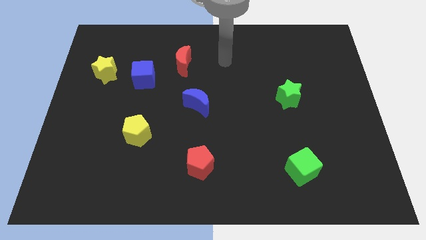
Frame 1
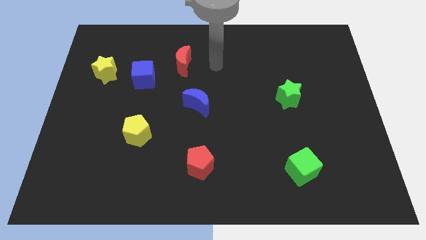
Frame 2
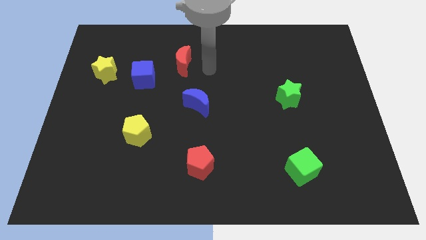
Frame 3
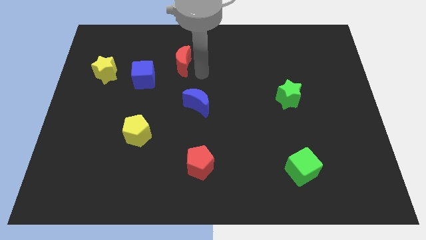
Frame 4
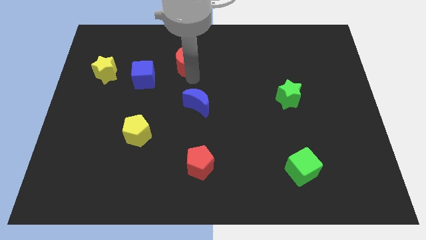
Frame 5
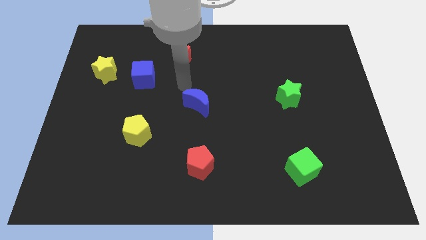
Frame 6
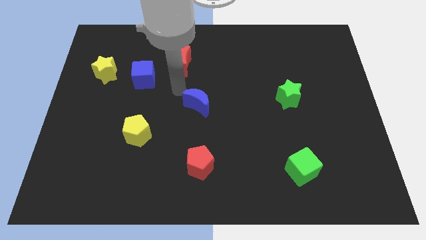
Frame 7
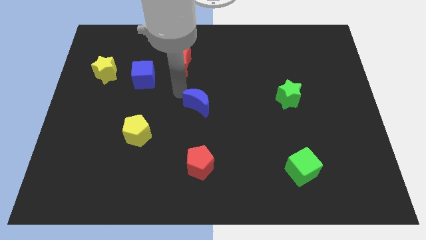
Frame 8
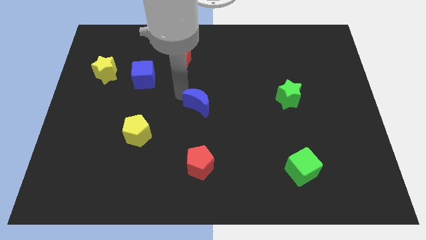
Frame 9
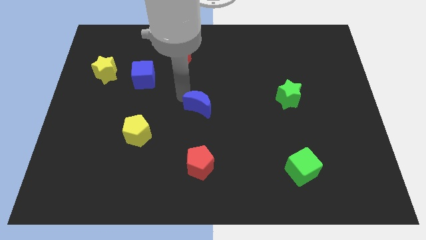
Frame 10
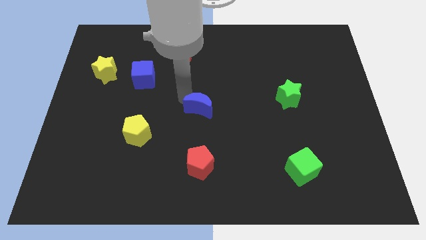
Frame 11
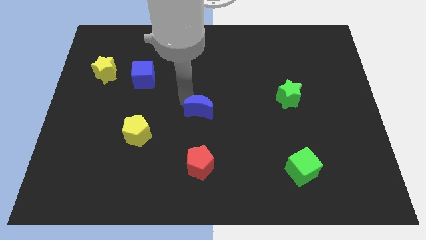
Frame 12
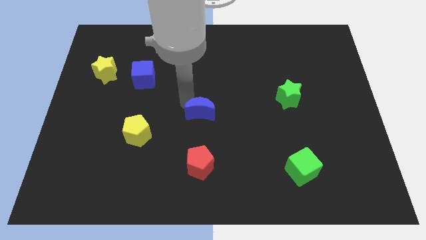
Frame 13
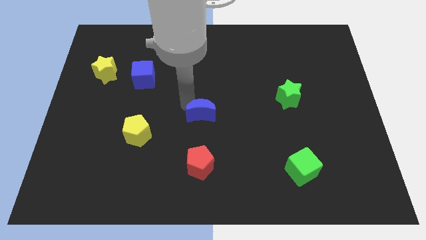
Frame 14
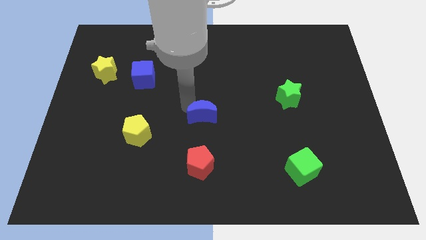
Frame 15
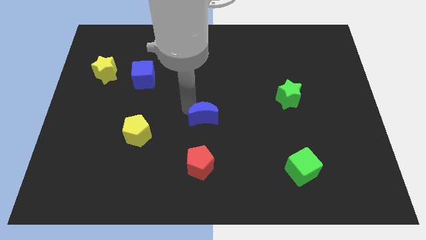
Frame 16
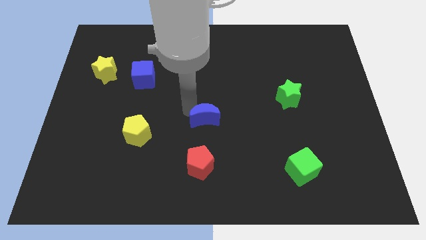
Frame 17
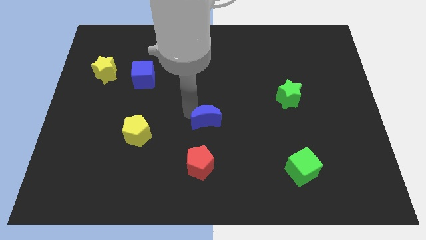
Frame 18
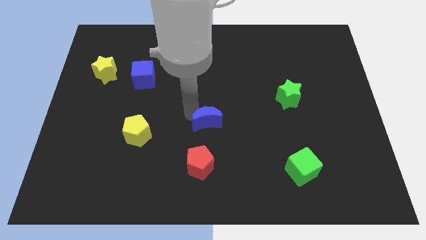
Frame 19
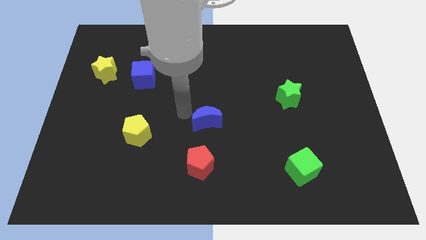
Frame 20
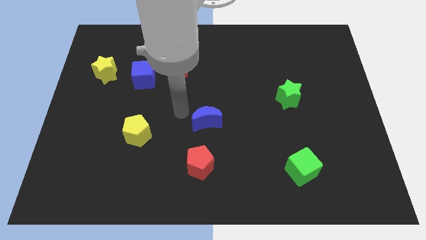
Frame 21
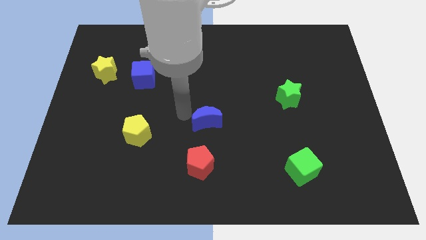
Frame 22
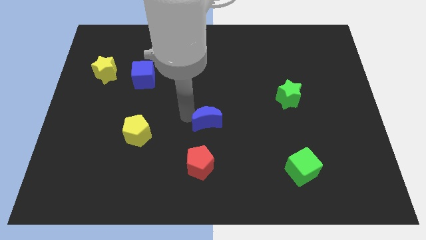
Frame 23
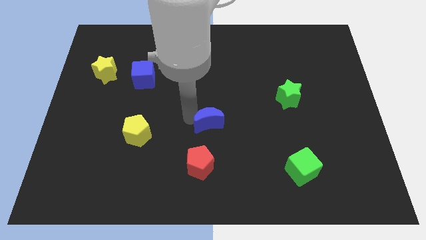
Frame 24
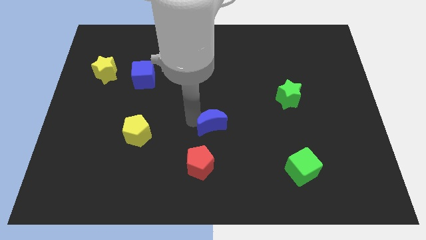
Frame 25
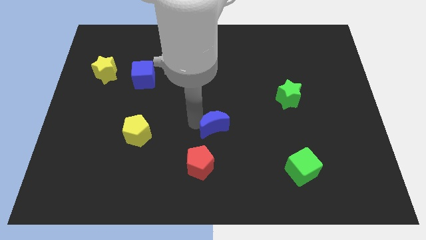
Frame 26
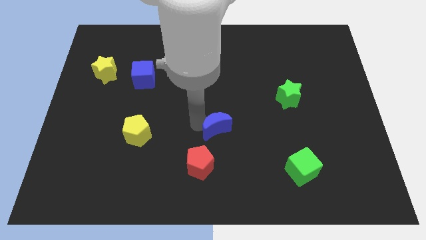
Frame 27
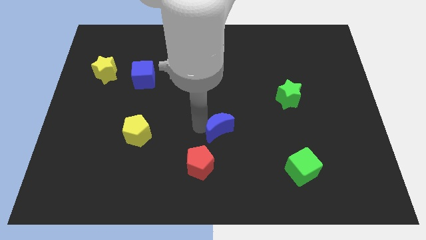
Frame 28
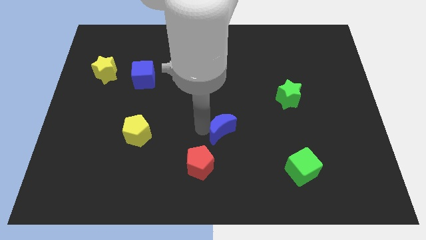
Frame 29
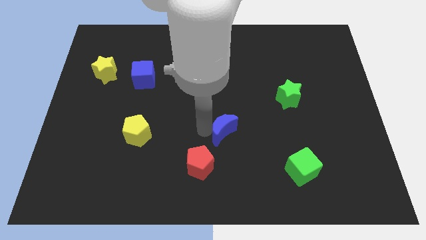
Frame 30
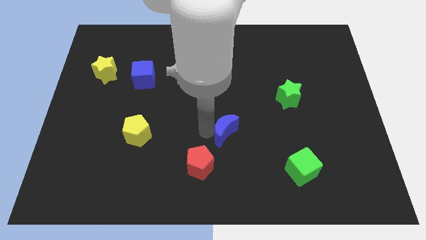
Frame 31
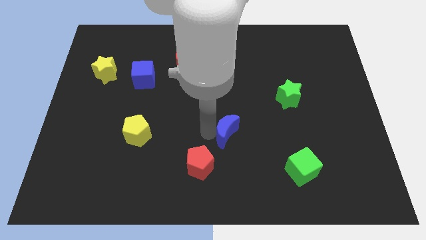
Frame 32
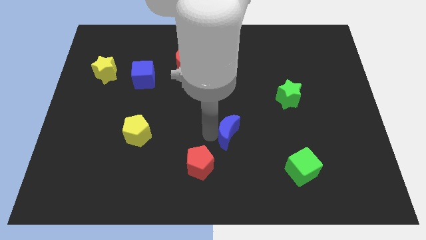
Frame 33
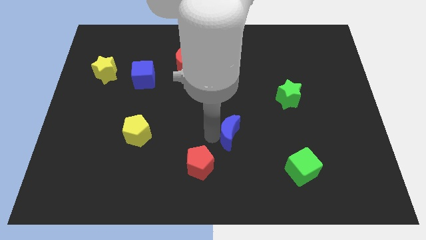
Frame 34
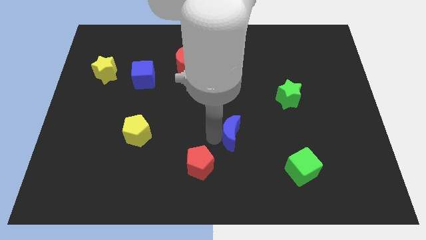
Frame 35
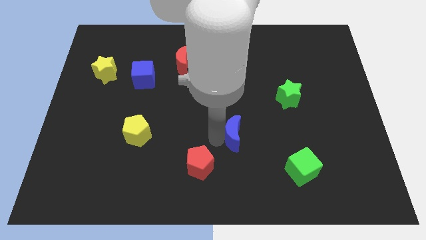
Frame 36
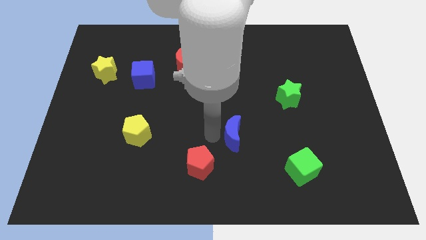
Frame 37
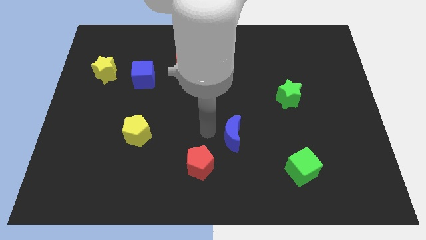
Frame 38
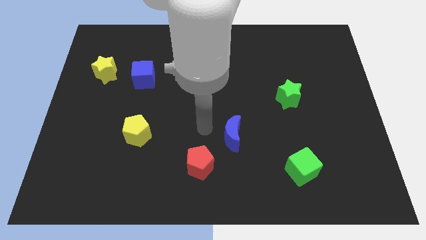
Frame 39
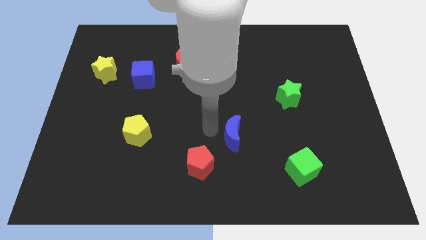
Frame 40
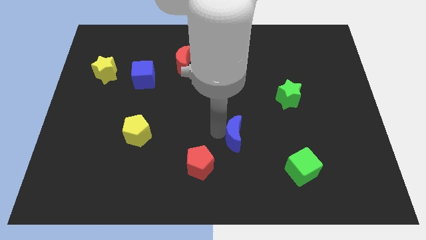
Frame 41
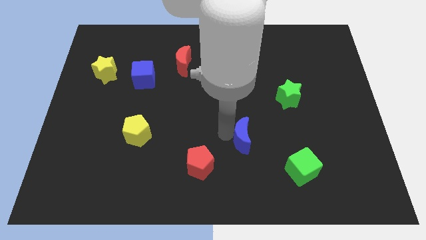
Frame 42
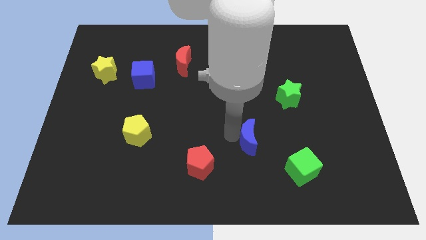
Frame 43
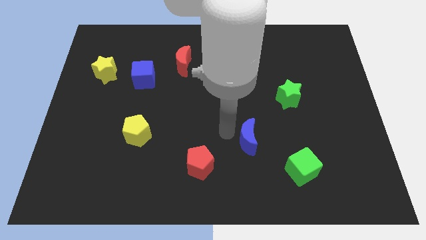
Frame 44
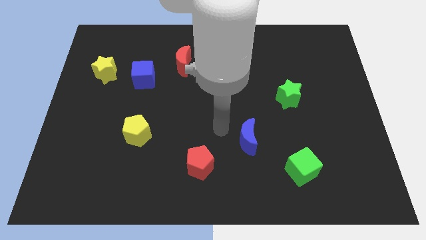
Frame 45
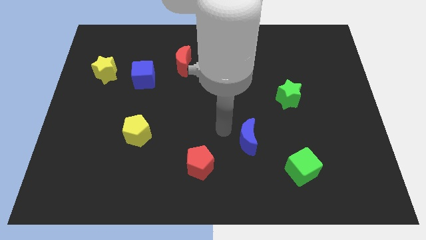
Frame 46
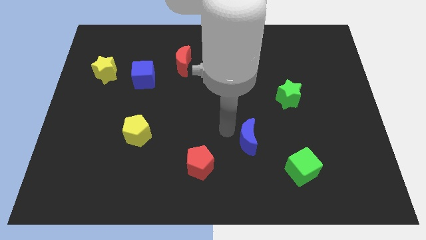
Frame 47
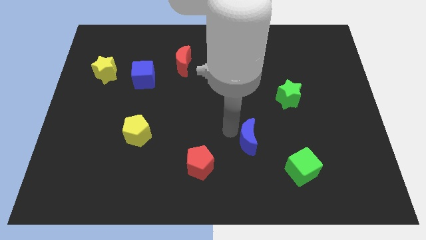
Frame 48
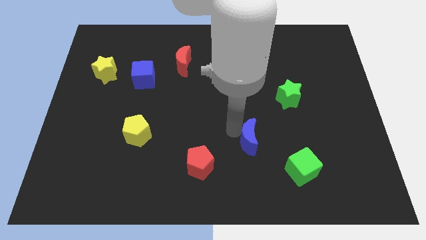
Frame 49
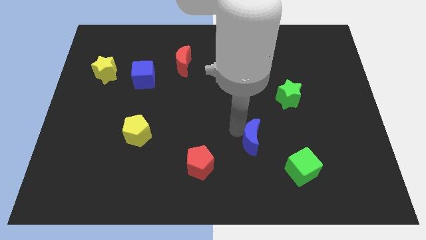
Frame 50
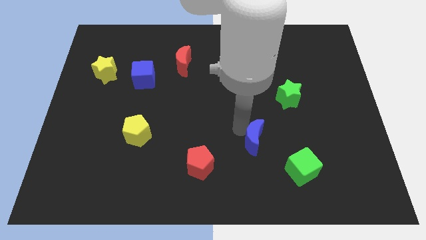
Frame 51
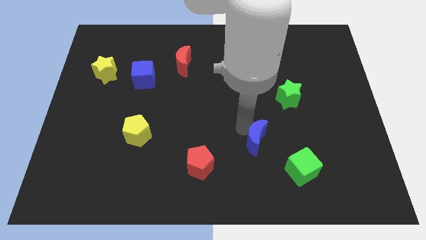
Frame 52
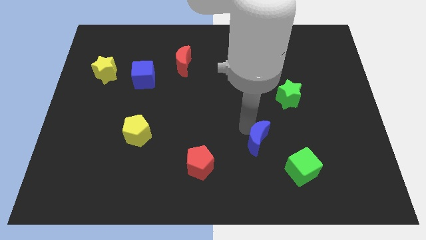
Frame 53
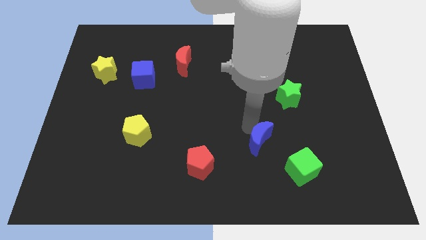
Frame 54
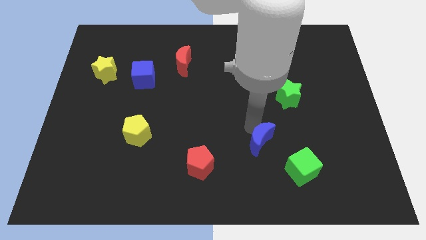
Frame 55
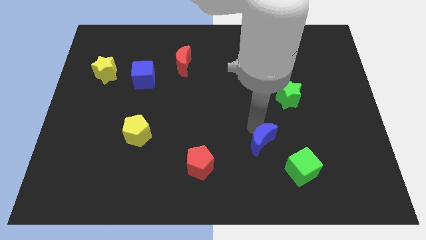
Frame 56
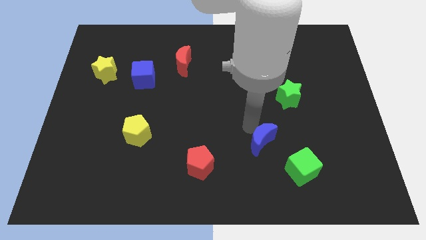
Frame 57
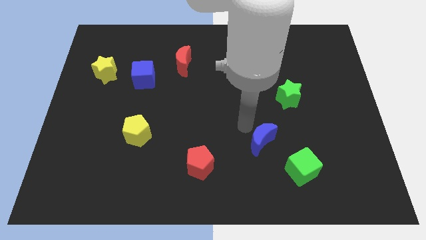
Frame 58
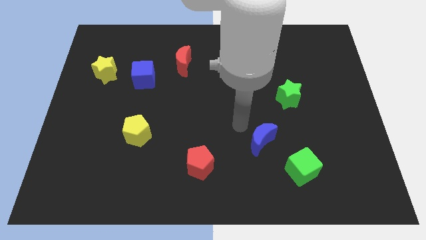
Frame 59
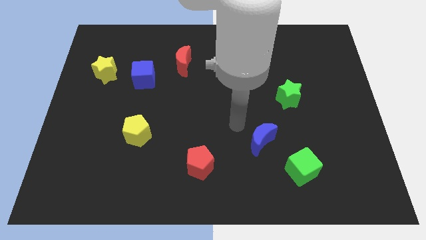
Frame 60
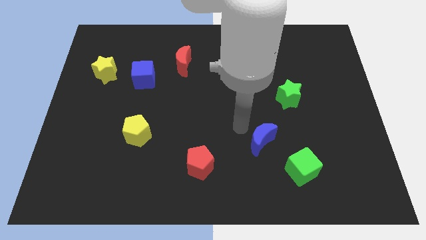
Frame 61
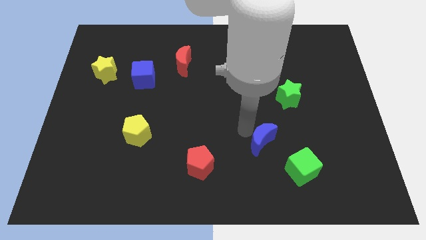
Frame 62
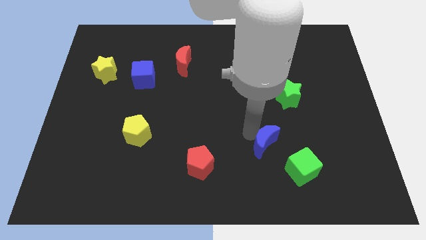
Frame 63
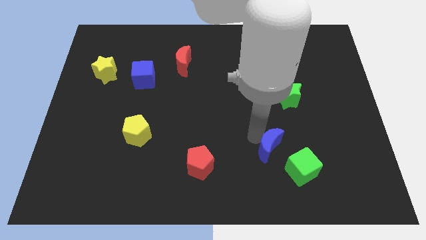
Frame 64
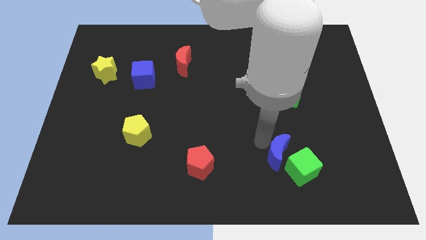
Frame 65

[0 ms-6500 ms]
push the blue moon towards the green cube

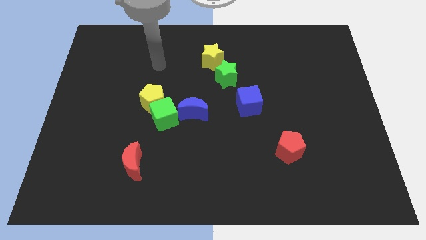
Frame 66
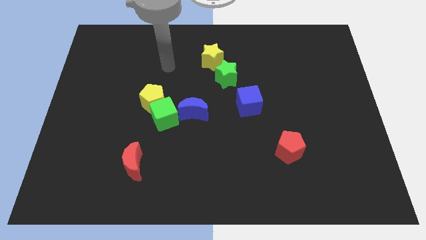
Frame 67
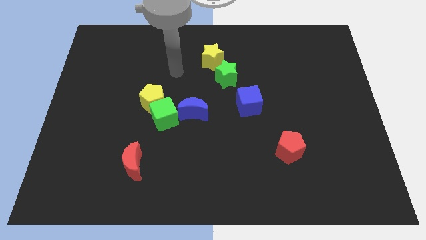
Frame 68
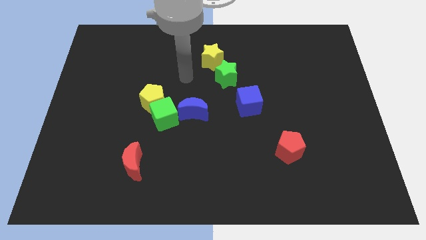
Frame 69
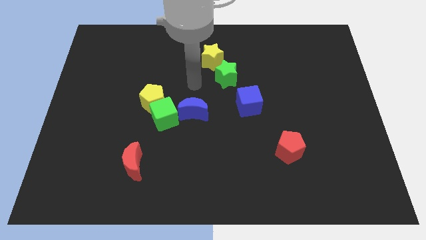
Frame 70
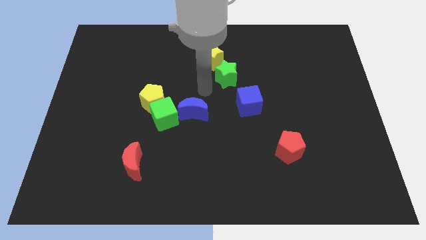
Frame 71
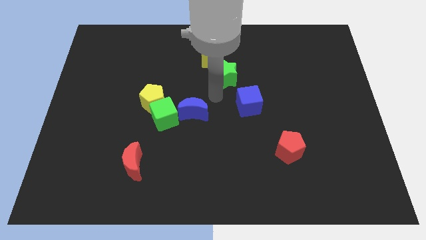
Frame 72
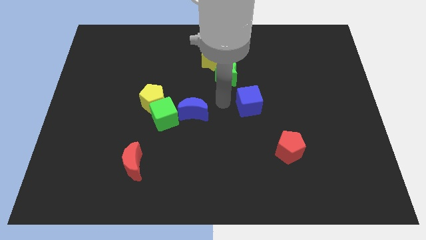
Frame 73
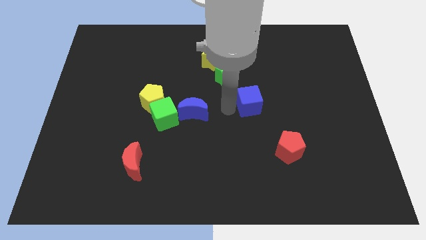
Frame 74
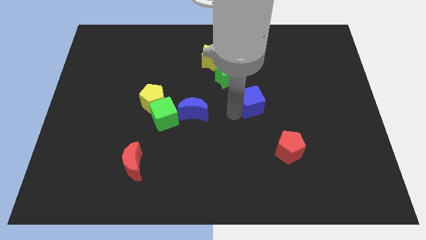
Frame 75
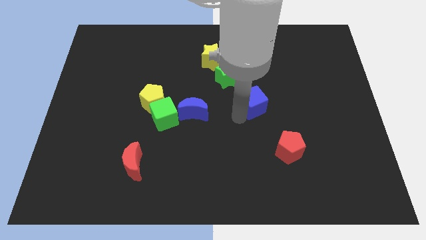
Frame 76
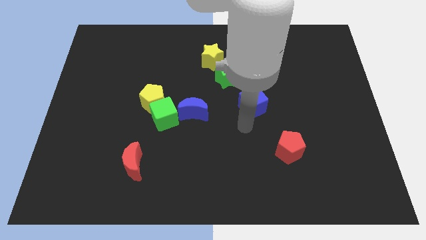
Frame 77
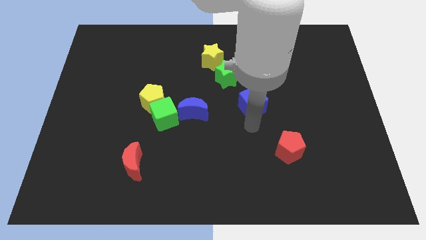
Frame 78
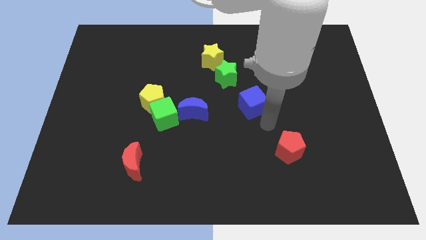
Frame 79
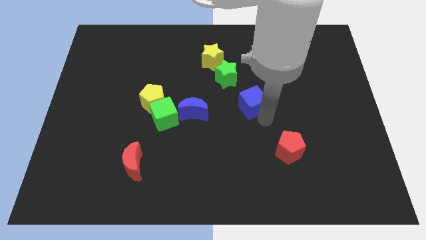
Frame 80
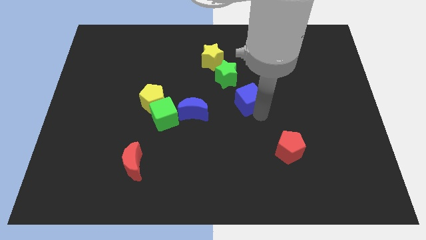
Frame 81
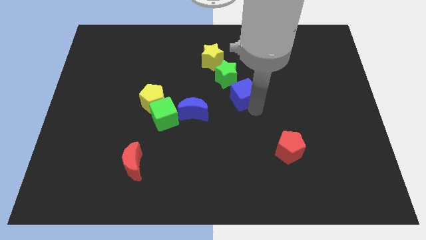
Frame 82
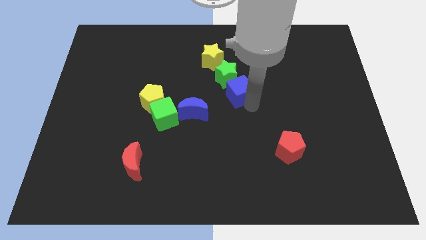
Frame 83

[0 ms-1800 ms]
move the blue cube towards the green star
